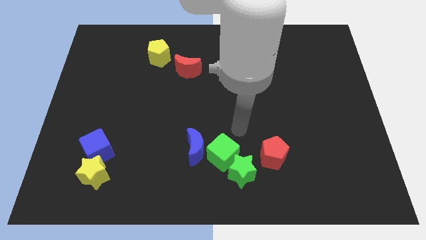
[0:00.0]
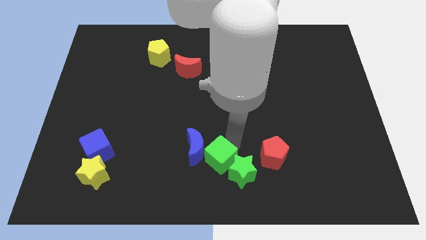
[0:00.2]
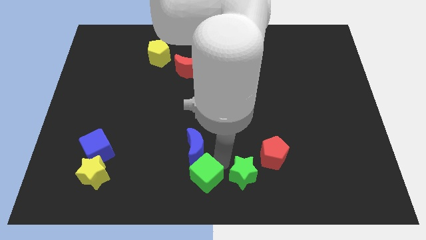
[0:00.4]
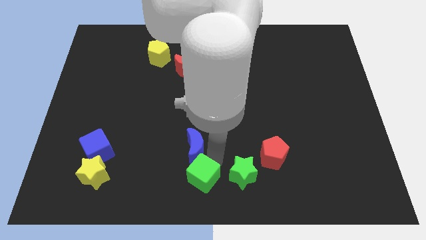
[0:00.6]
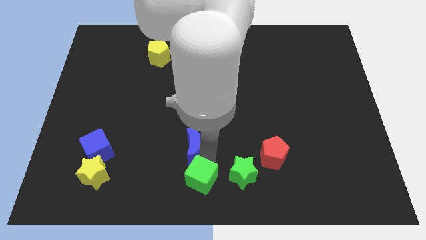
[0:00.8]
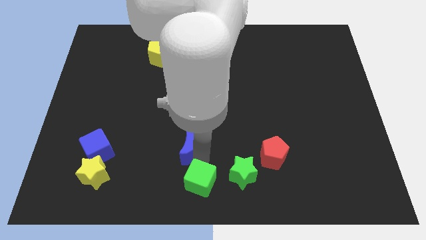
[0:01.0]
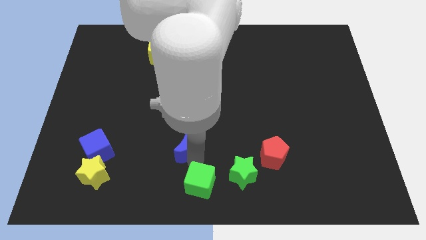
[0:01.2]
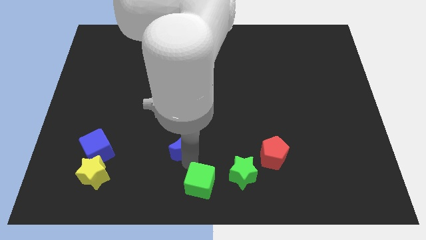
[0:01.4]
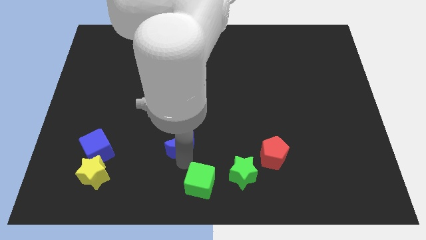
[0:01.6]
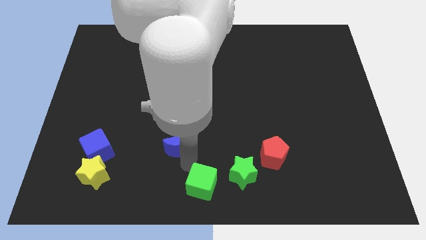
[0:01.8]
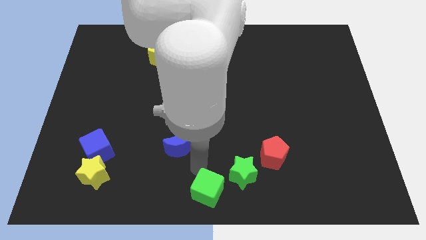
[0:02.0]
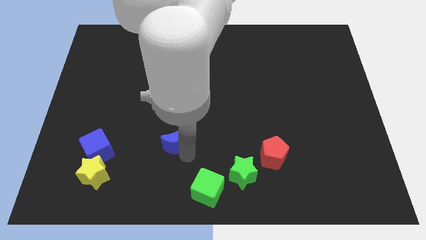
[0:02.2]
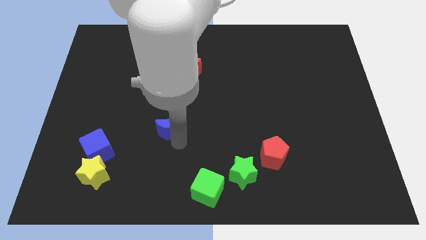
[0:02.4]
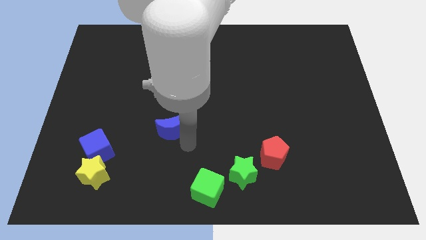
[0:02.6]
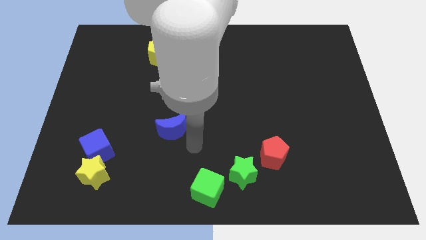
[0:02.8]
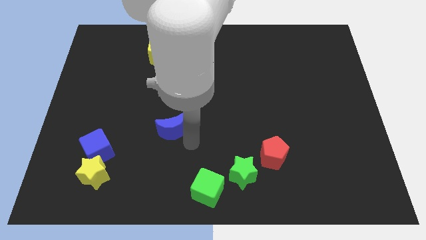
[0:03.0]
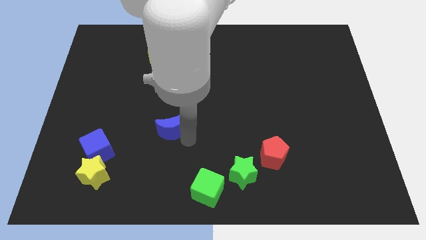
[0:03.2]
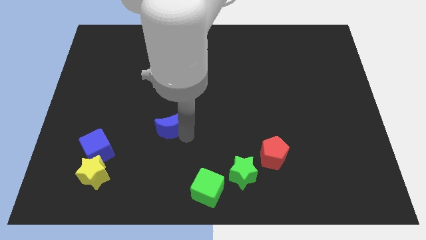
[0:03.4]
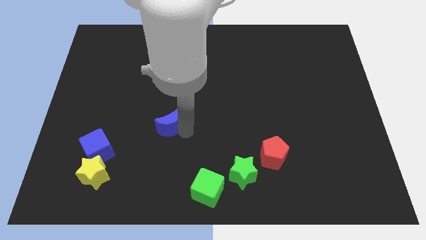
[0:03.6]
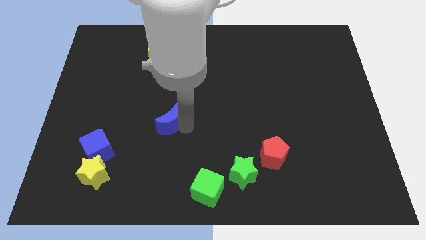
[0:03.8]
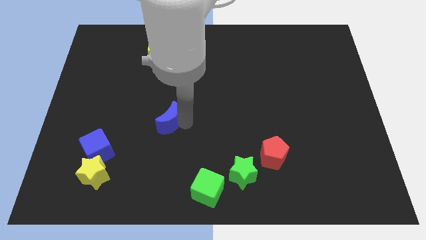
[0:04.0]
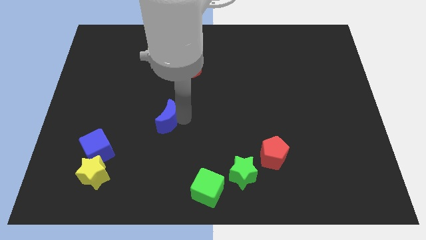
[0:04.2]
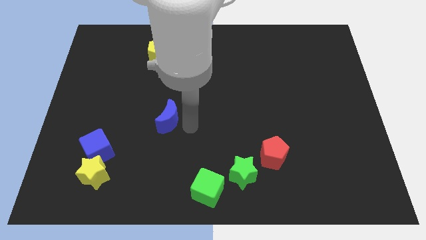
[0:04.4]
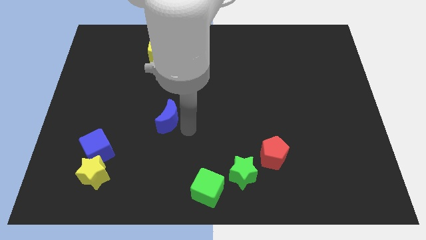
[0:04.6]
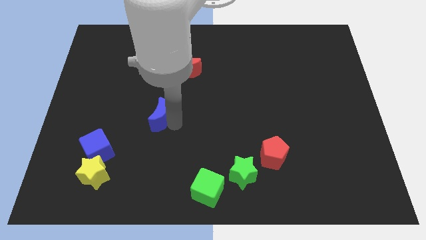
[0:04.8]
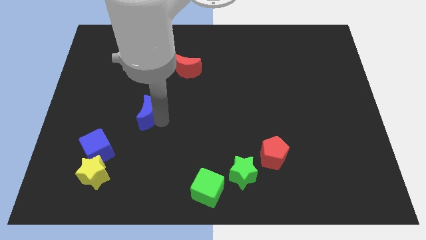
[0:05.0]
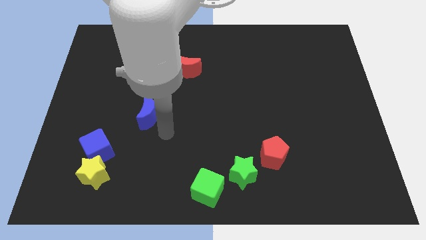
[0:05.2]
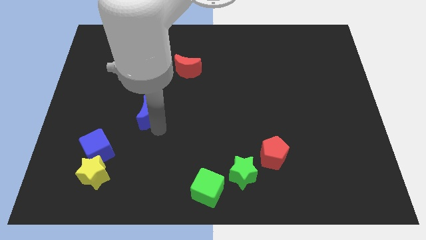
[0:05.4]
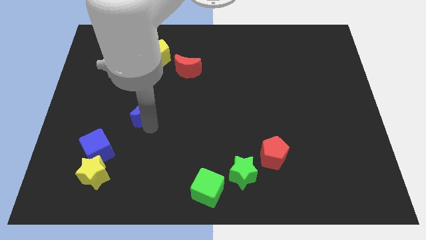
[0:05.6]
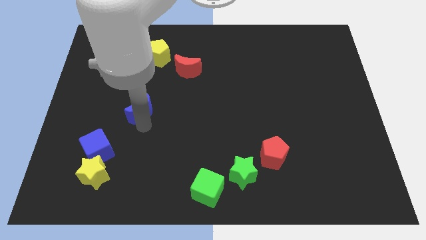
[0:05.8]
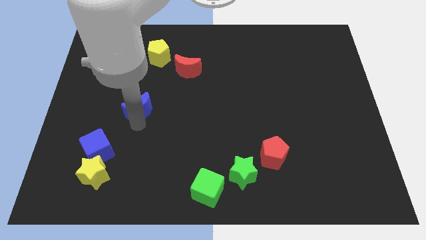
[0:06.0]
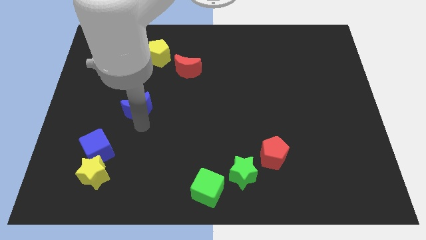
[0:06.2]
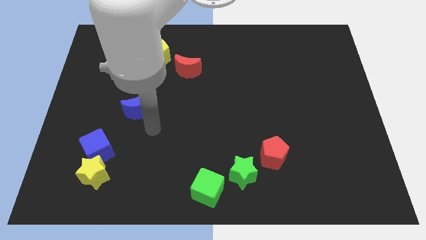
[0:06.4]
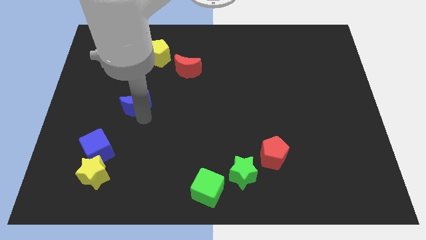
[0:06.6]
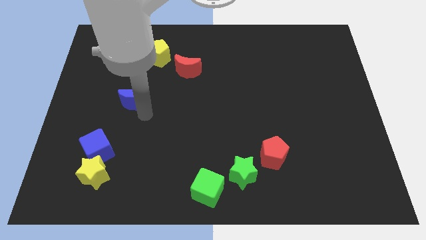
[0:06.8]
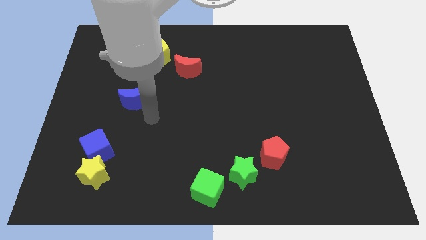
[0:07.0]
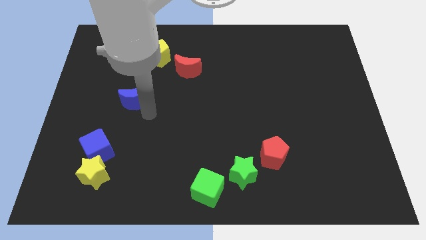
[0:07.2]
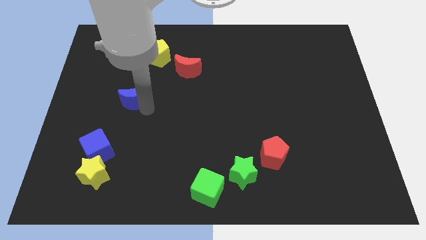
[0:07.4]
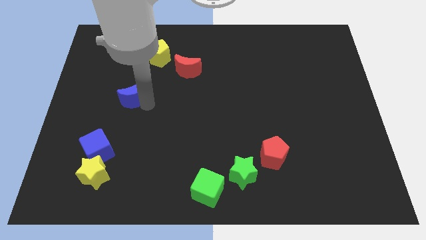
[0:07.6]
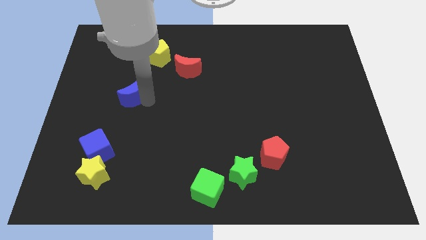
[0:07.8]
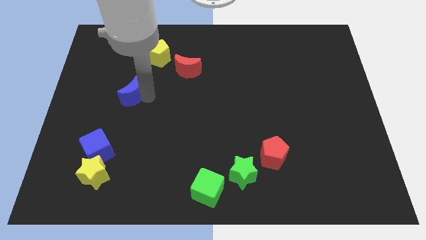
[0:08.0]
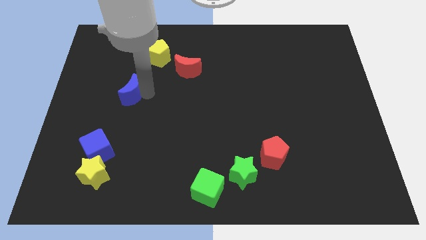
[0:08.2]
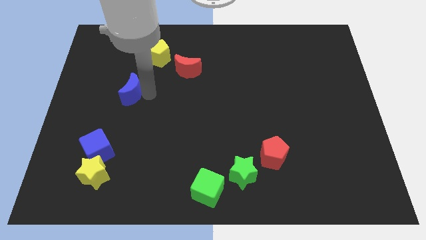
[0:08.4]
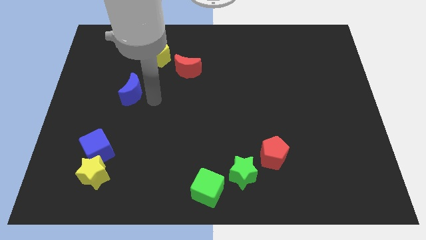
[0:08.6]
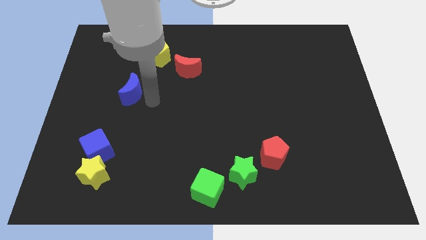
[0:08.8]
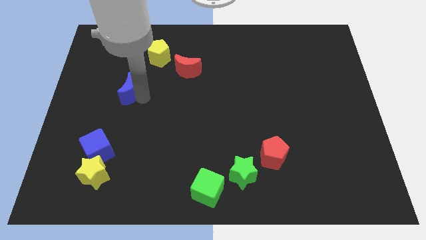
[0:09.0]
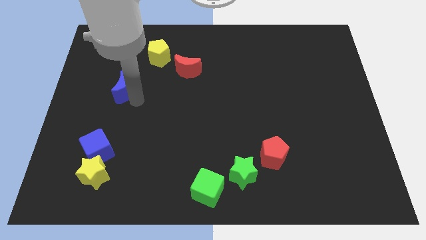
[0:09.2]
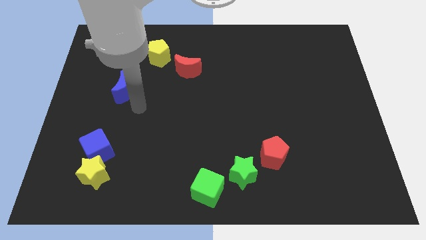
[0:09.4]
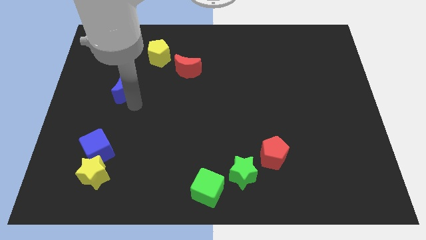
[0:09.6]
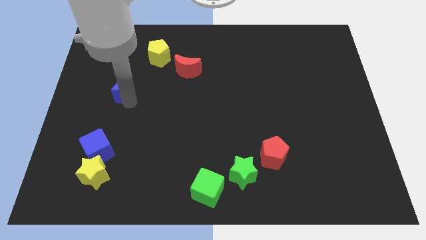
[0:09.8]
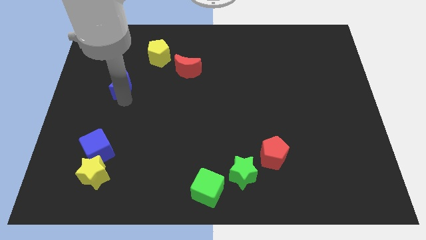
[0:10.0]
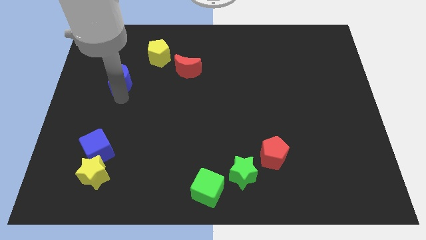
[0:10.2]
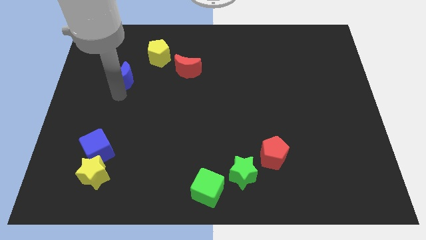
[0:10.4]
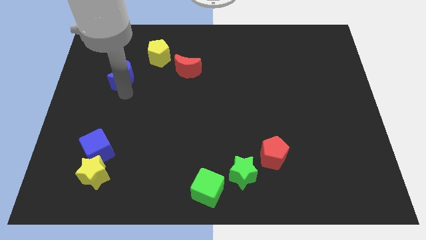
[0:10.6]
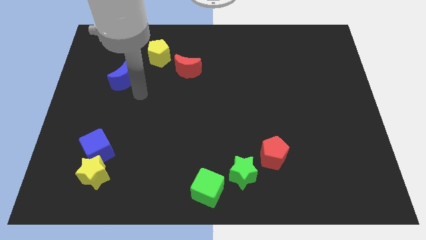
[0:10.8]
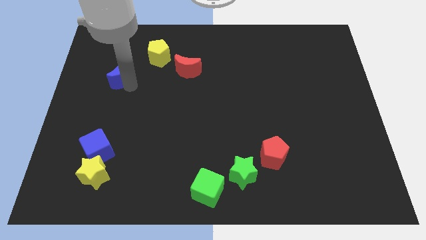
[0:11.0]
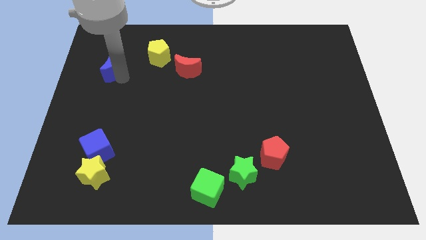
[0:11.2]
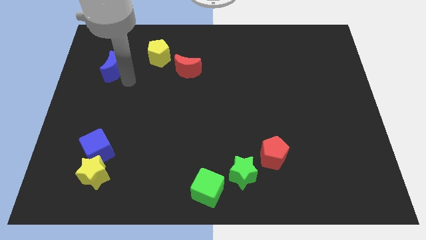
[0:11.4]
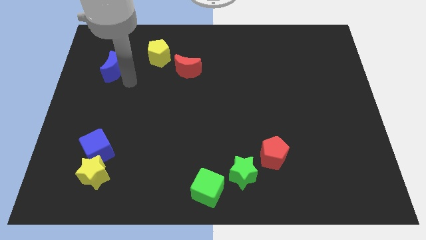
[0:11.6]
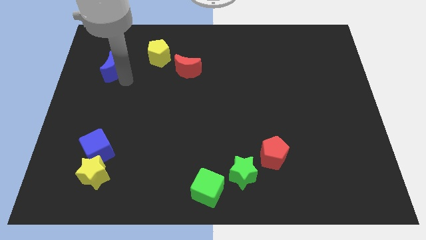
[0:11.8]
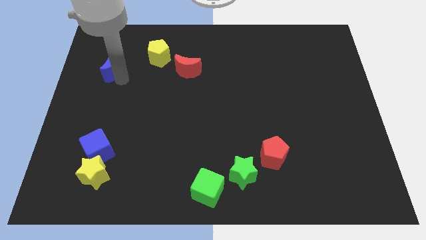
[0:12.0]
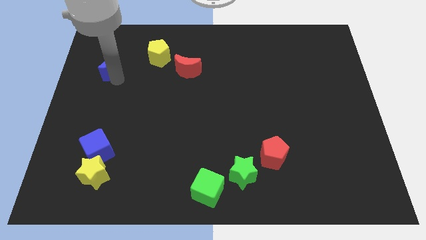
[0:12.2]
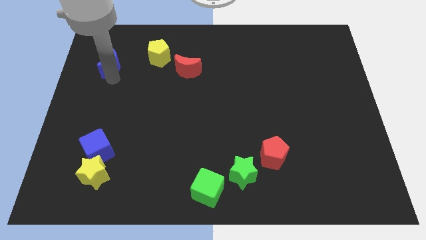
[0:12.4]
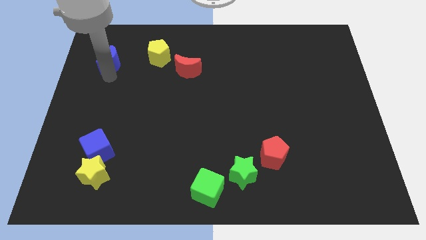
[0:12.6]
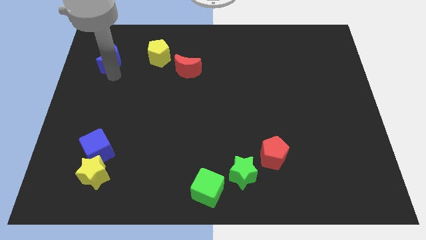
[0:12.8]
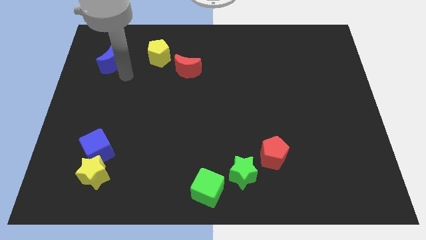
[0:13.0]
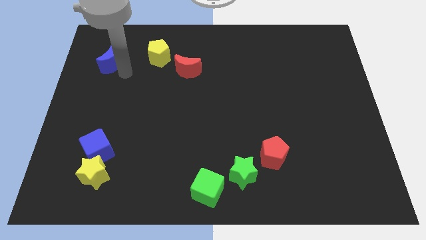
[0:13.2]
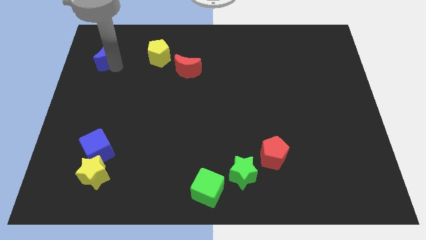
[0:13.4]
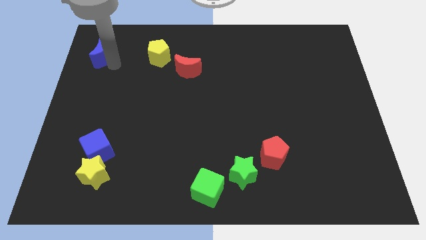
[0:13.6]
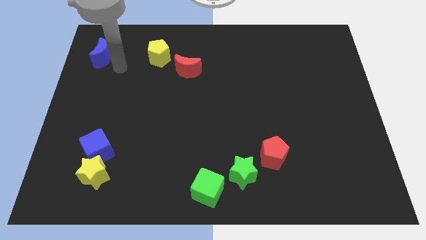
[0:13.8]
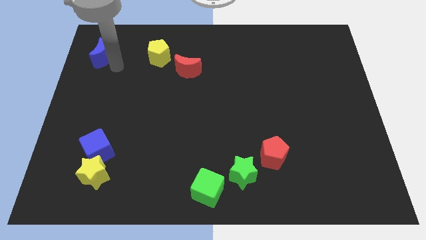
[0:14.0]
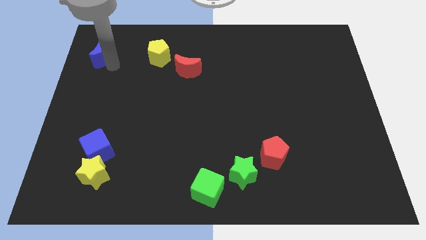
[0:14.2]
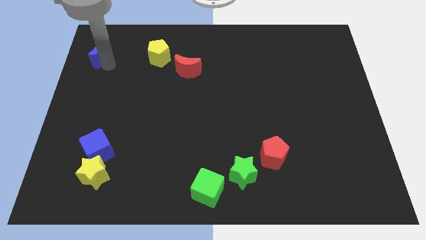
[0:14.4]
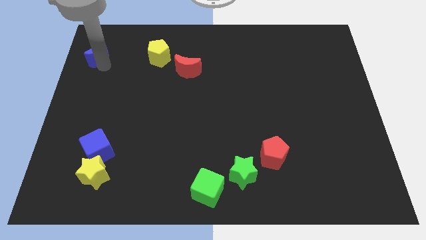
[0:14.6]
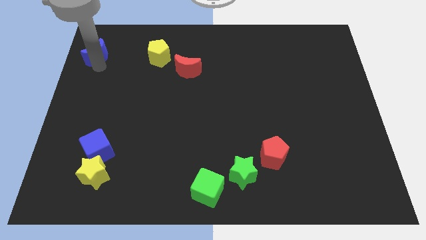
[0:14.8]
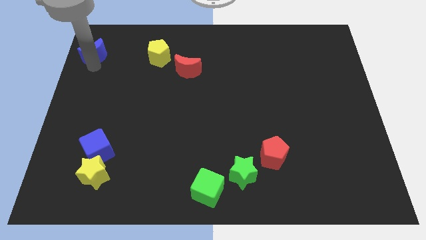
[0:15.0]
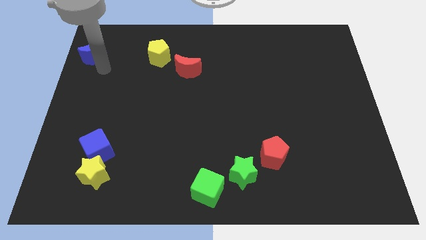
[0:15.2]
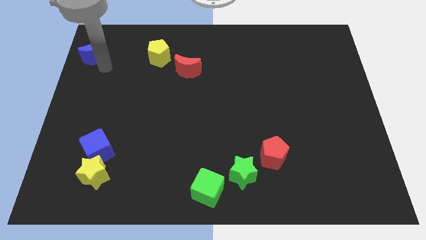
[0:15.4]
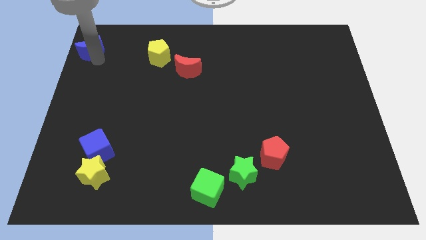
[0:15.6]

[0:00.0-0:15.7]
slide the blue moon to the upper left corner
